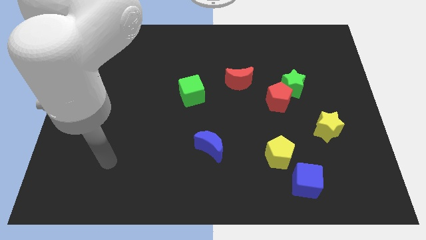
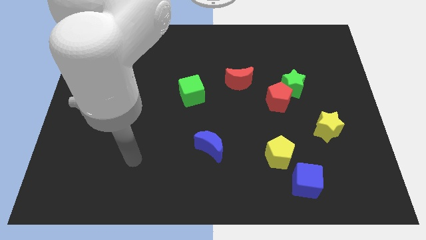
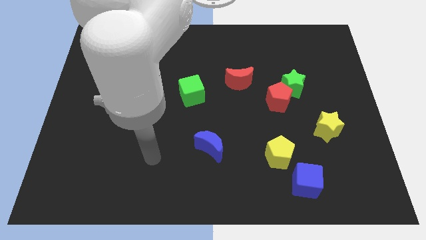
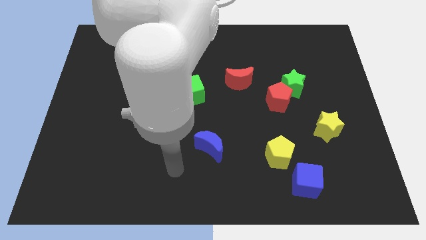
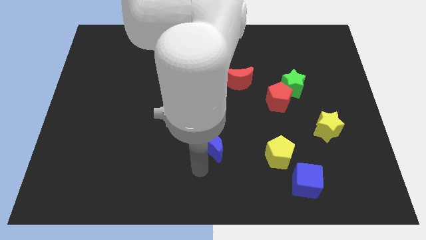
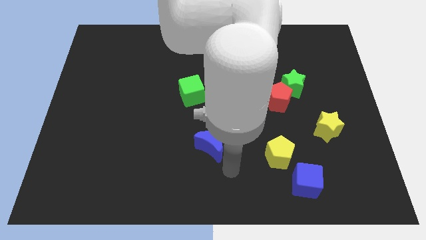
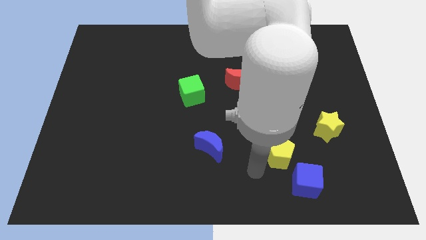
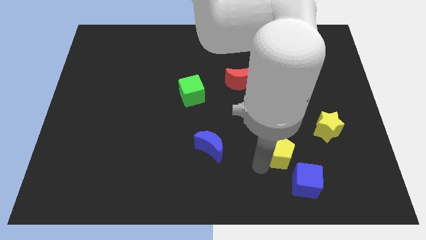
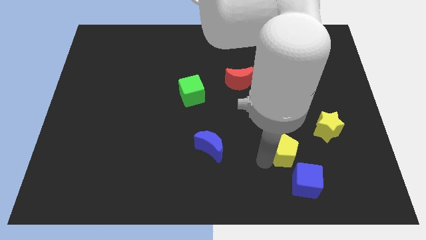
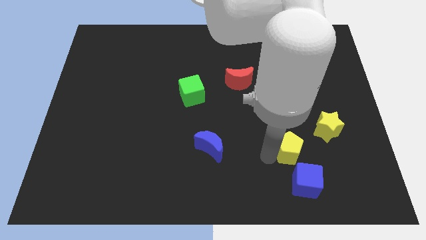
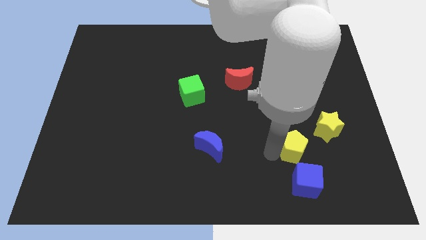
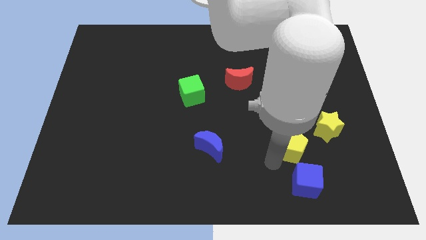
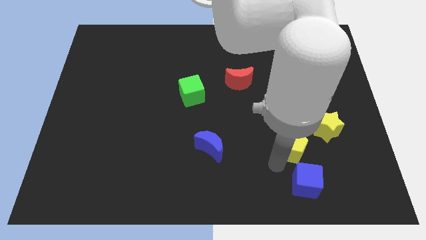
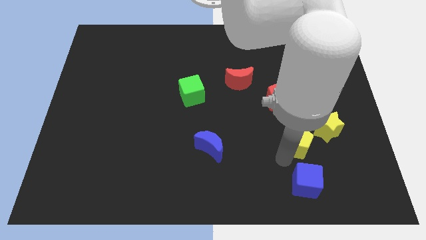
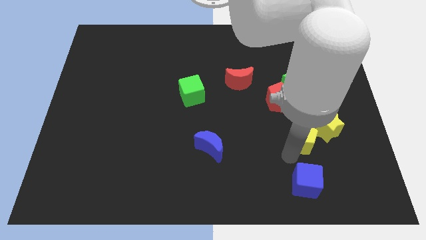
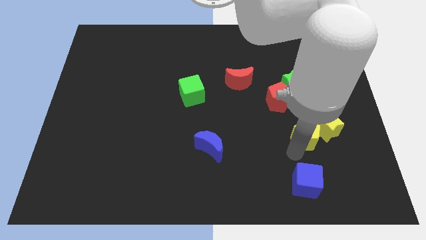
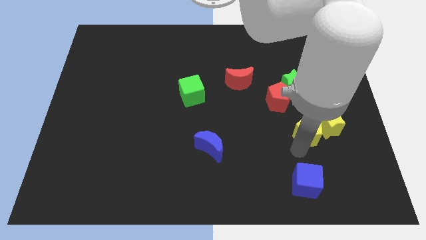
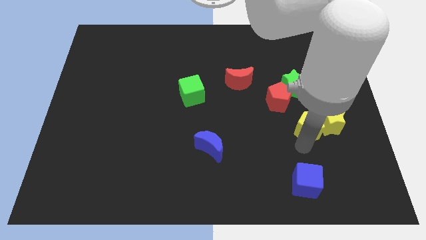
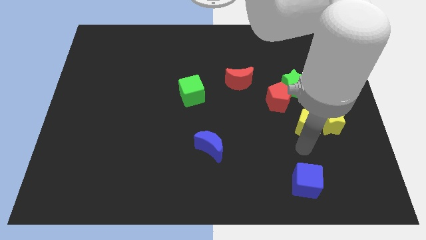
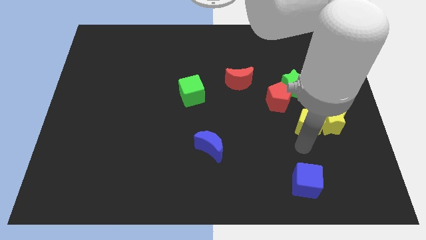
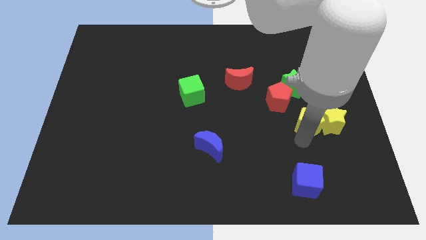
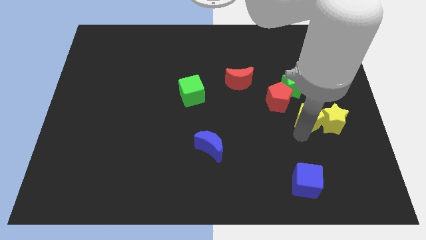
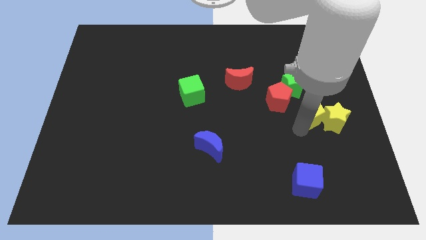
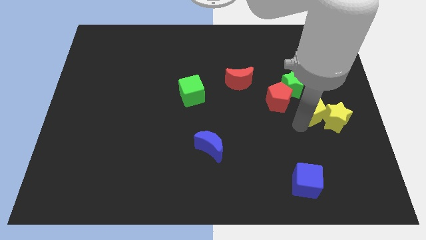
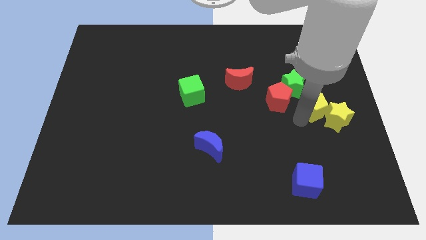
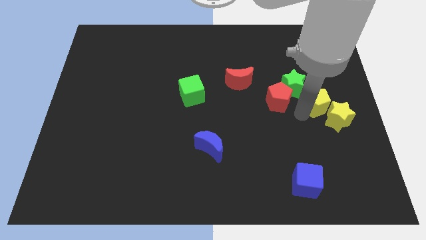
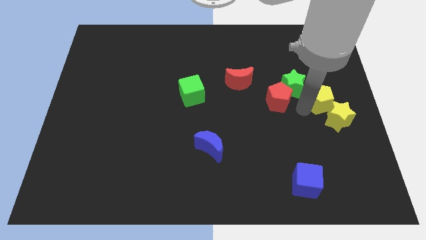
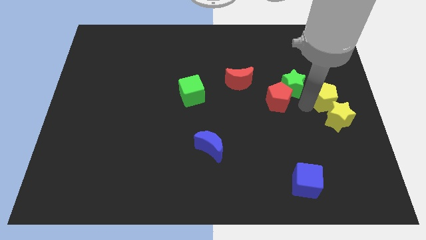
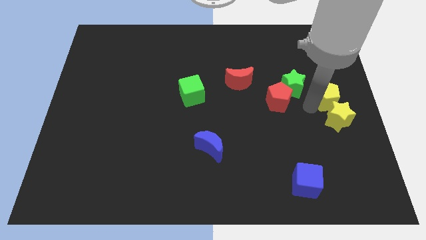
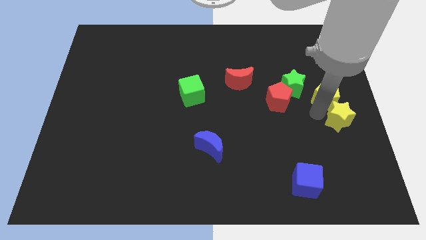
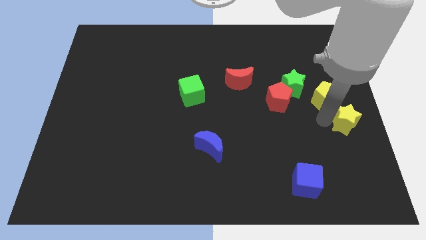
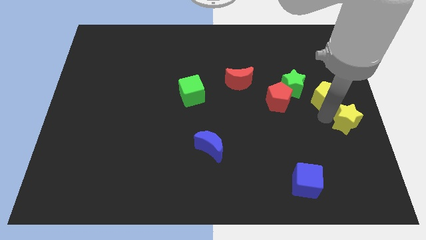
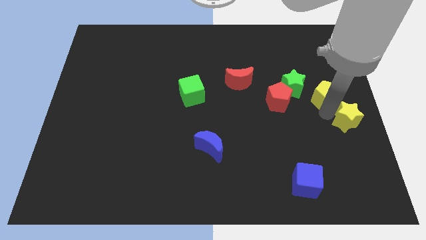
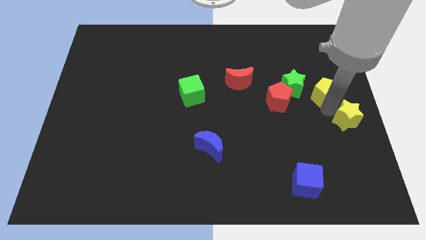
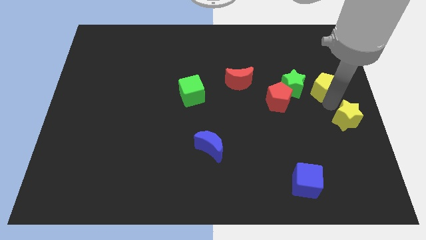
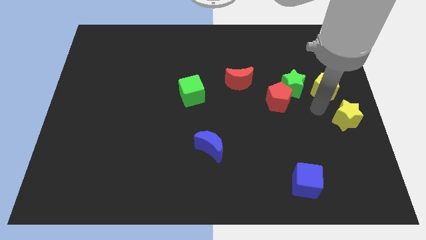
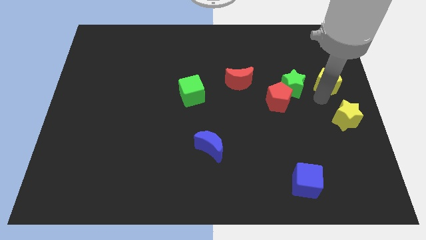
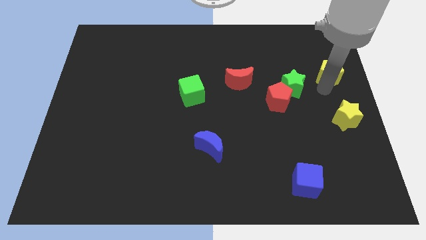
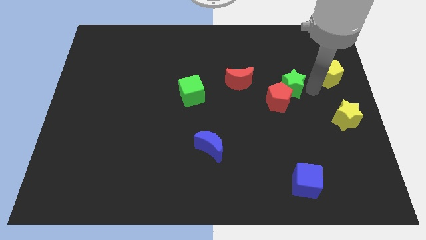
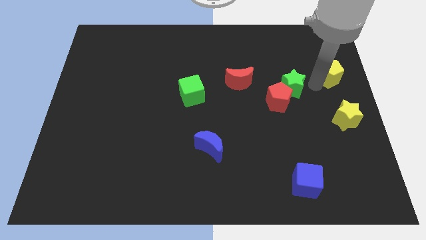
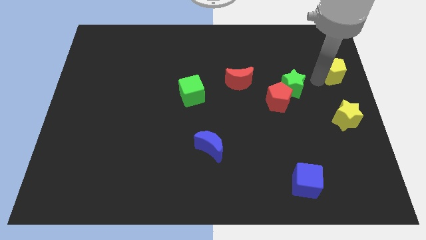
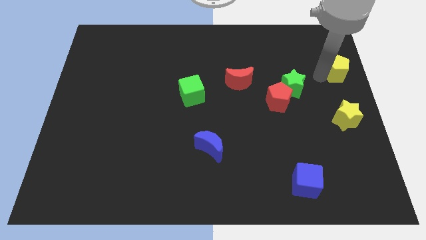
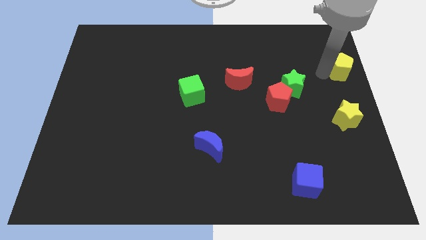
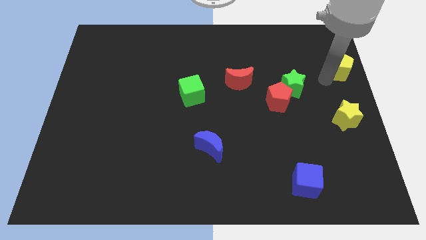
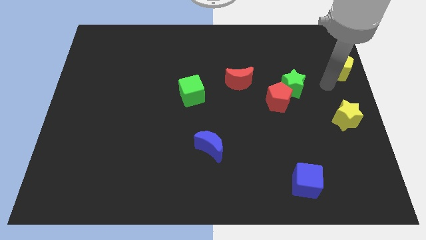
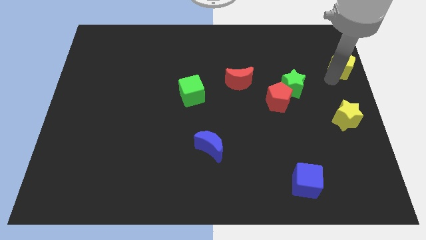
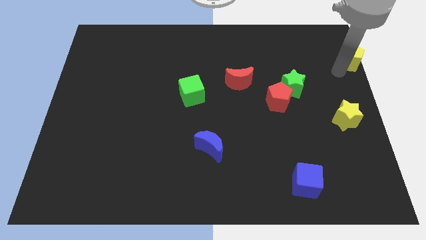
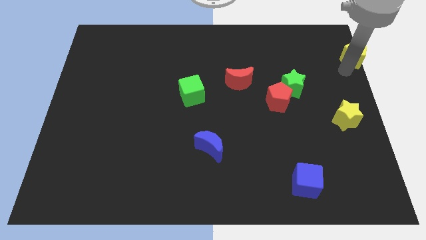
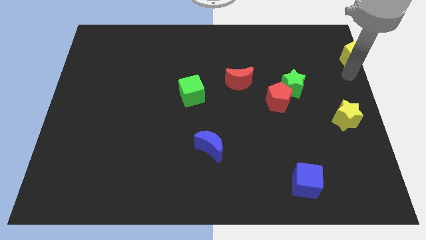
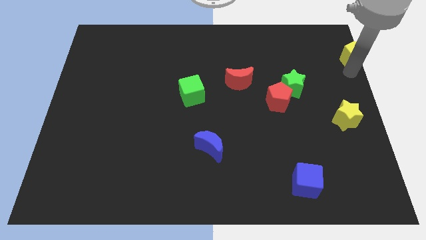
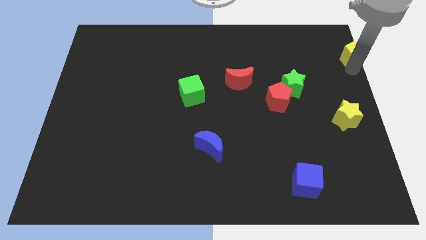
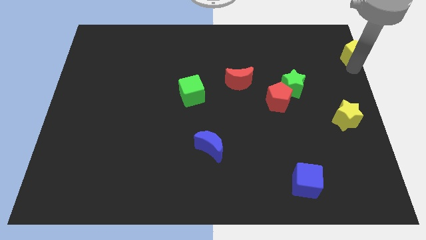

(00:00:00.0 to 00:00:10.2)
put the yellow pentagon to the upper right corner

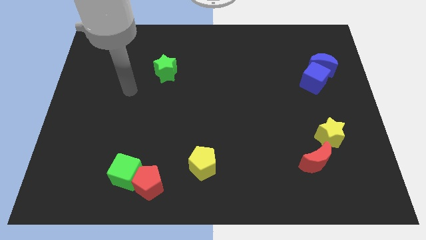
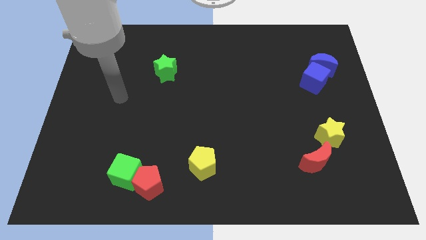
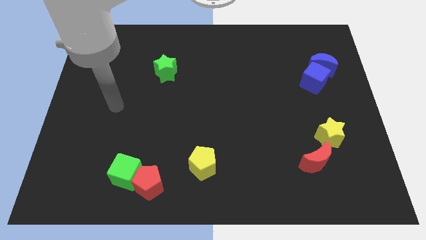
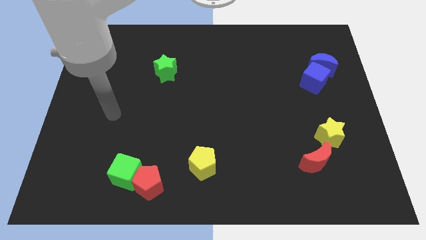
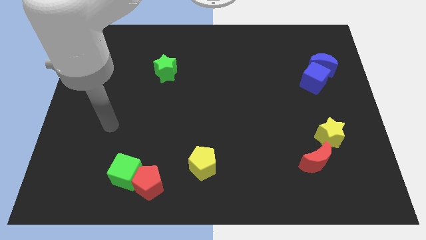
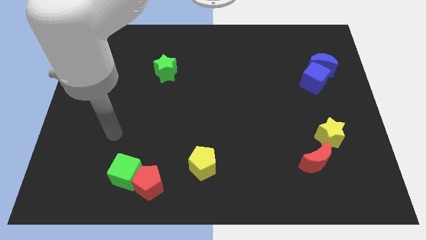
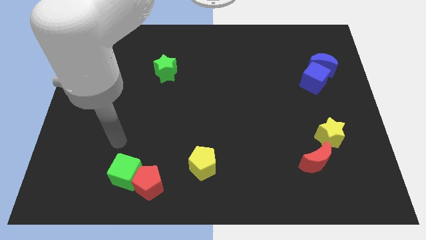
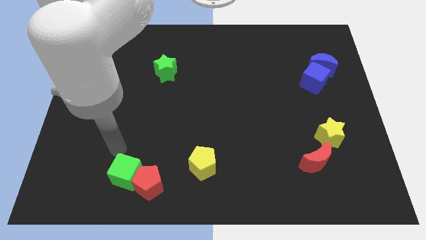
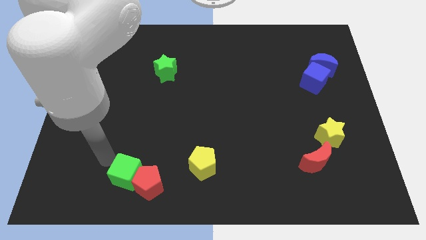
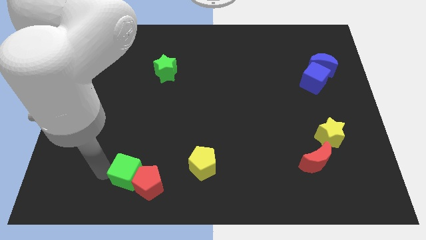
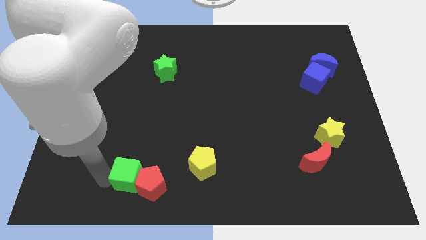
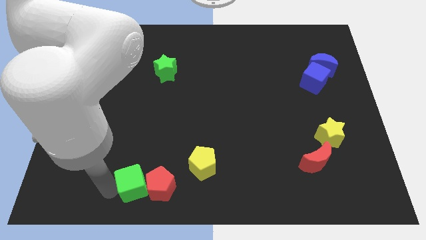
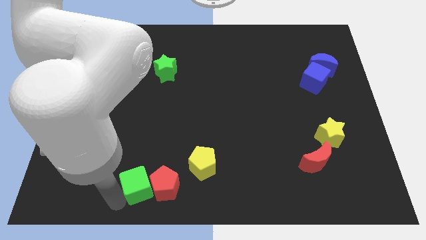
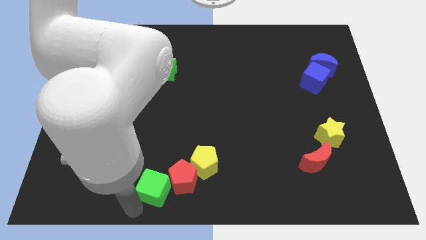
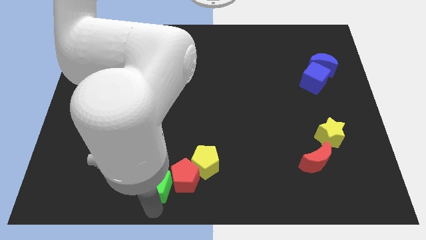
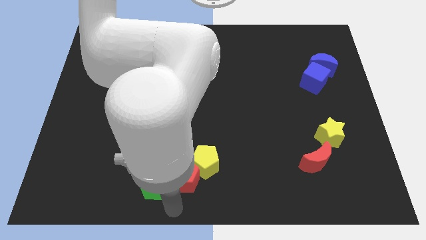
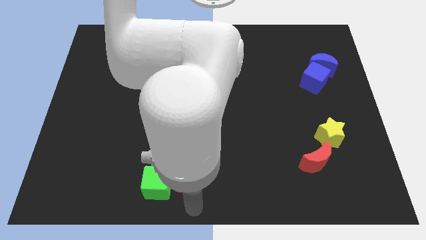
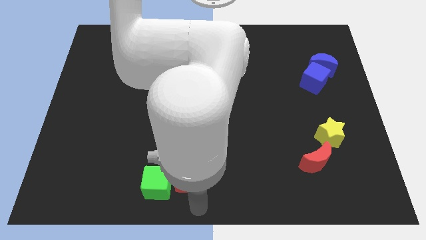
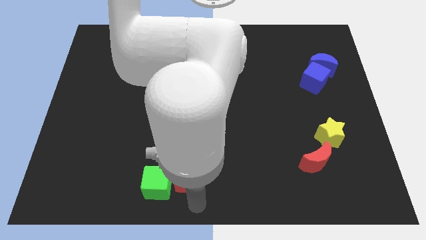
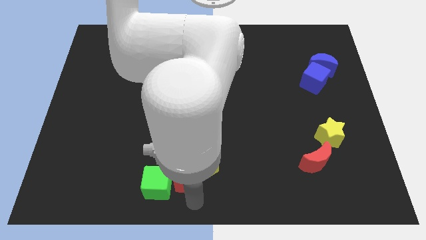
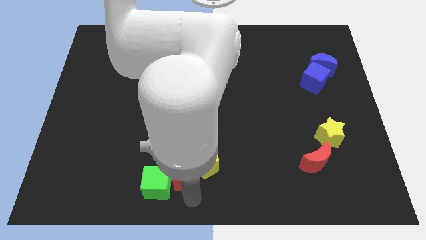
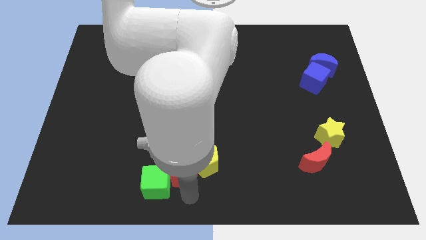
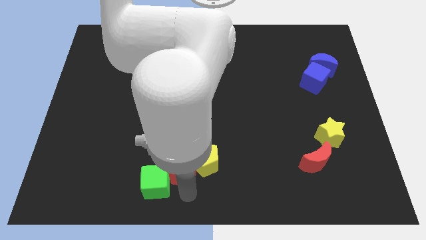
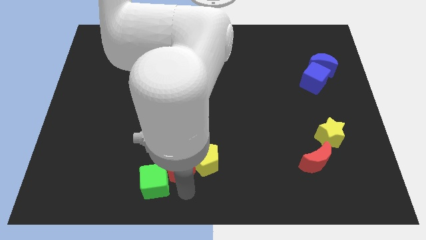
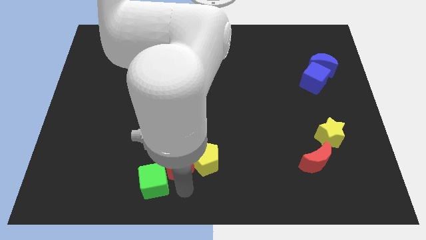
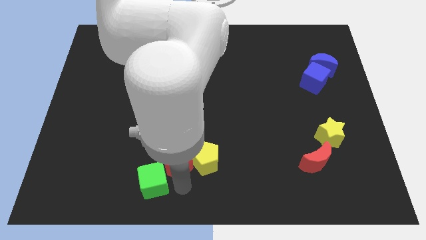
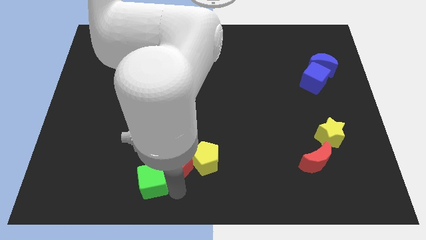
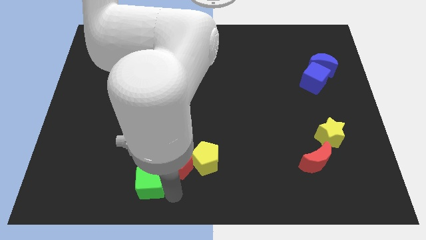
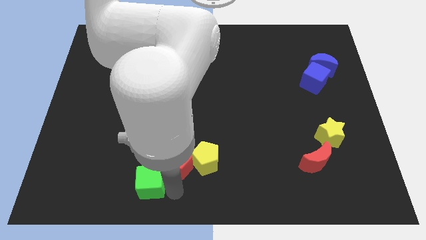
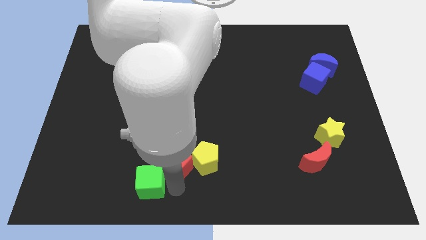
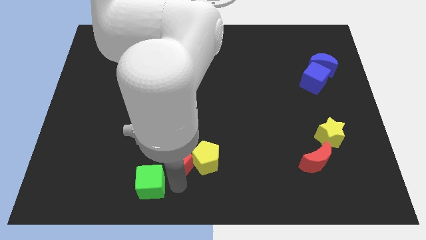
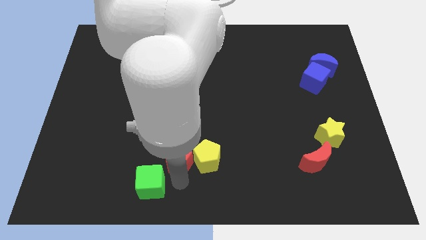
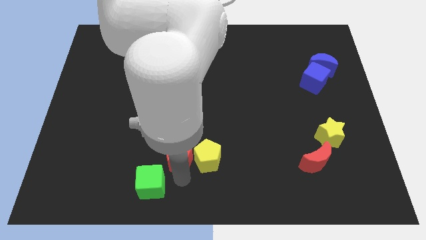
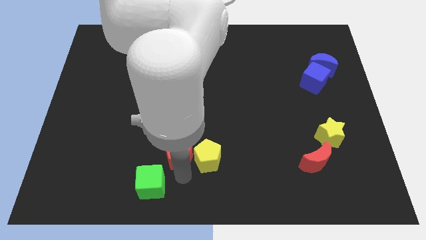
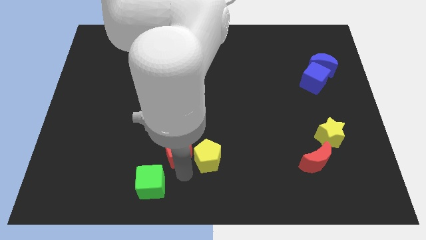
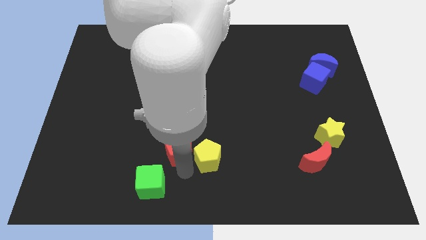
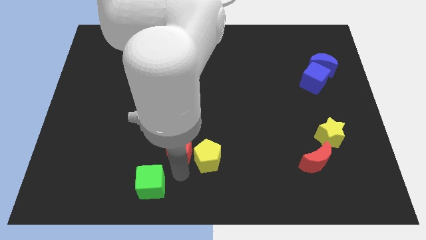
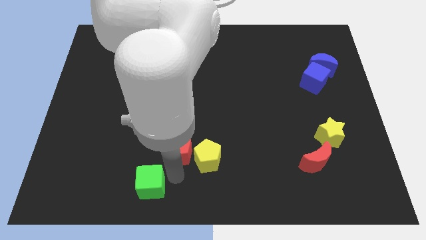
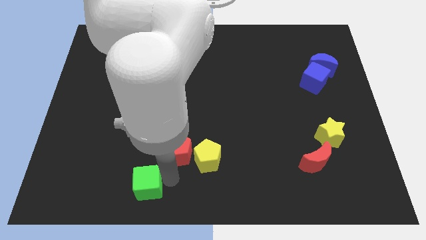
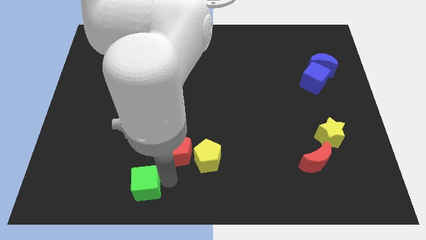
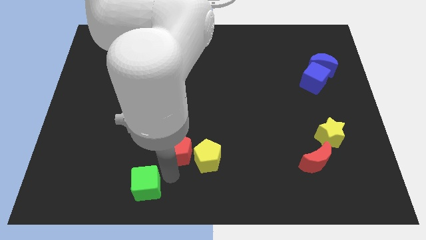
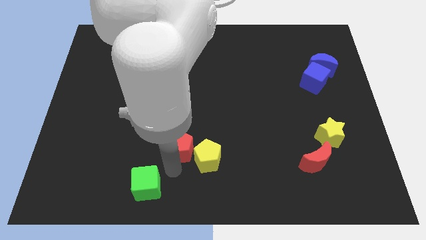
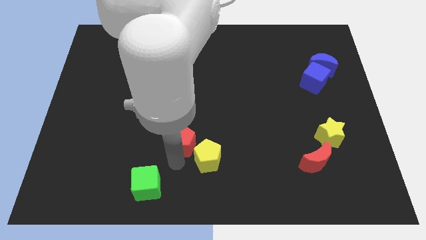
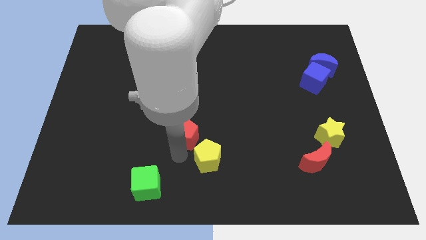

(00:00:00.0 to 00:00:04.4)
slide the red pentagon to the center of the board
